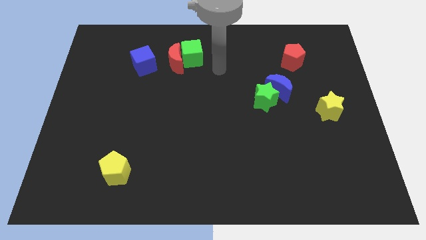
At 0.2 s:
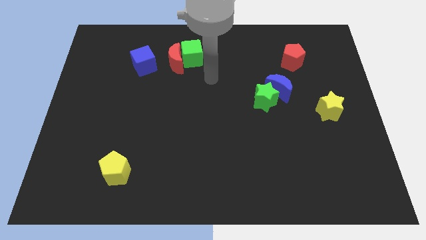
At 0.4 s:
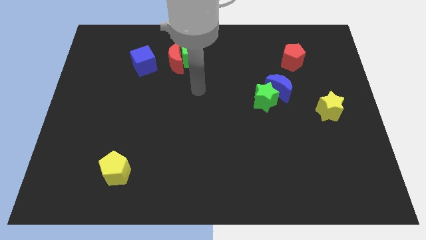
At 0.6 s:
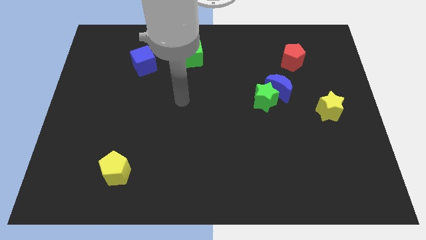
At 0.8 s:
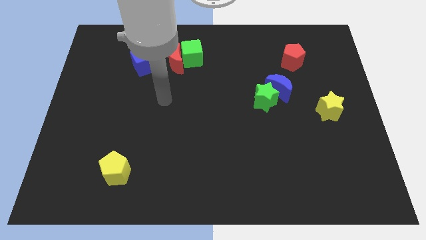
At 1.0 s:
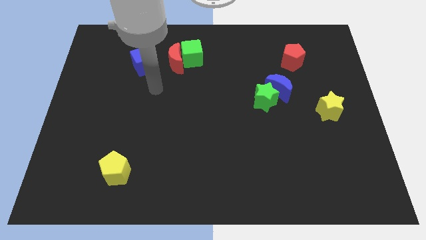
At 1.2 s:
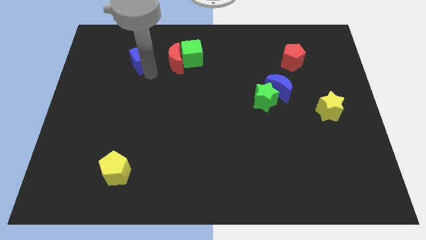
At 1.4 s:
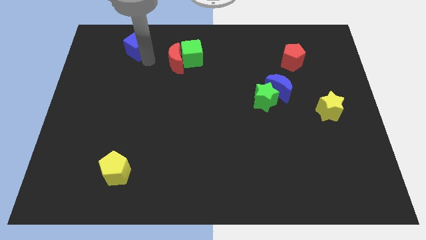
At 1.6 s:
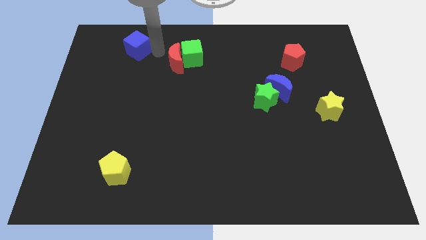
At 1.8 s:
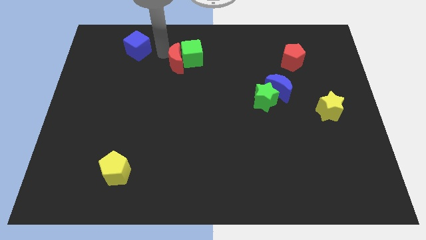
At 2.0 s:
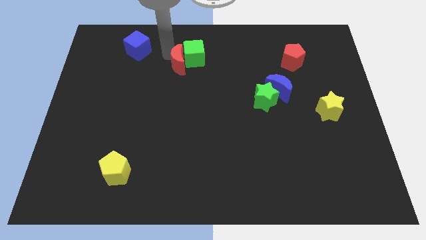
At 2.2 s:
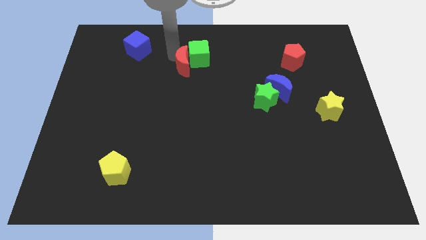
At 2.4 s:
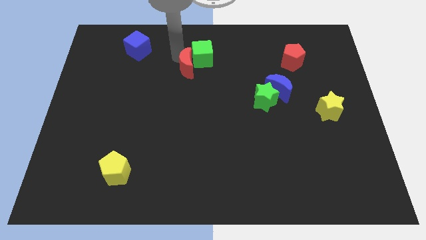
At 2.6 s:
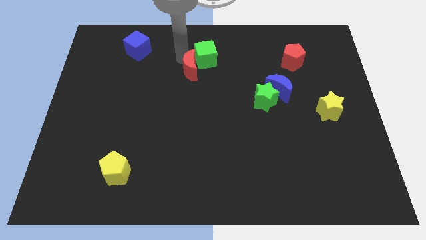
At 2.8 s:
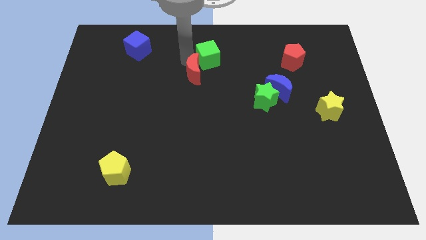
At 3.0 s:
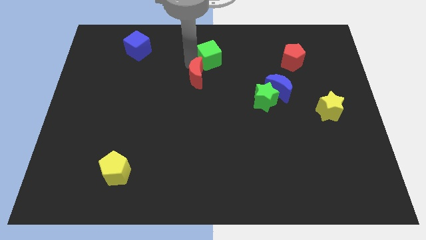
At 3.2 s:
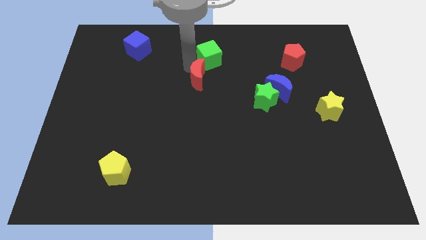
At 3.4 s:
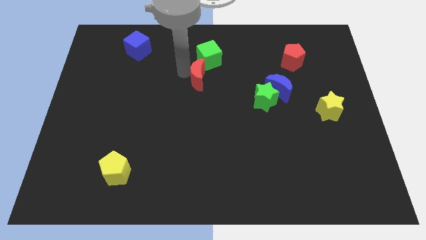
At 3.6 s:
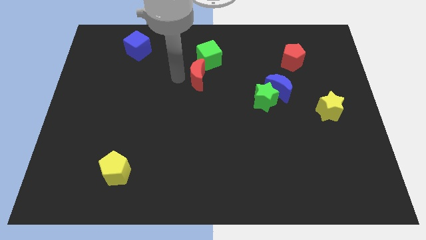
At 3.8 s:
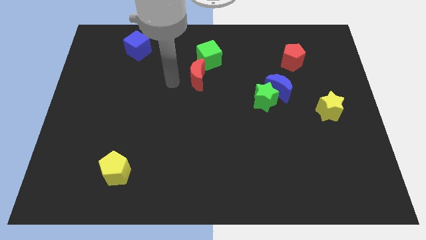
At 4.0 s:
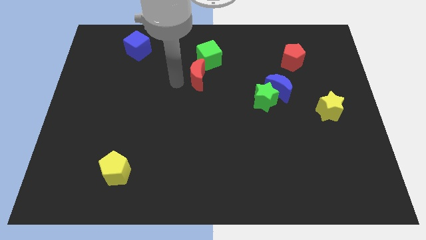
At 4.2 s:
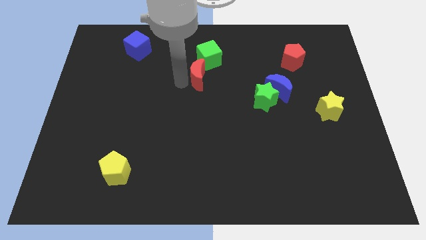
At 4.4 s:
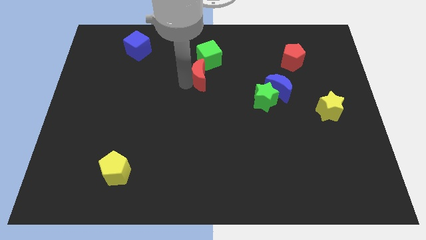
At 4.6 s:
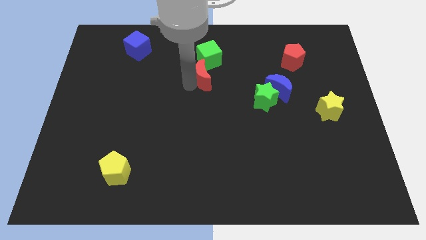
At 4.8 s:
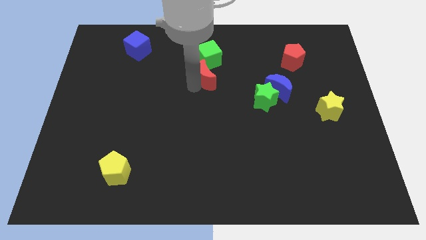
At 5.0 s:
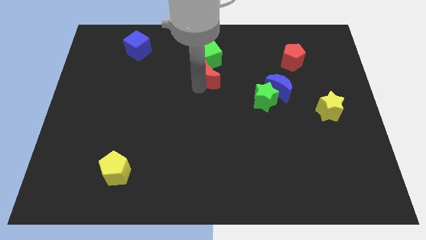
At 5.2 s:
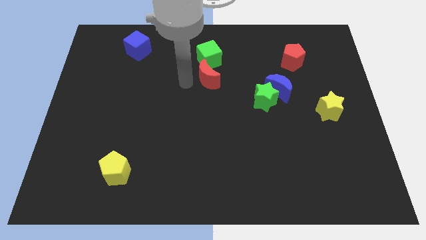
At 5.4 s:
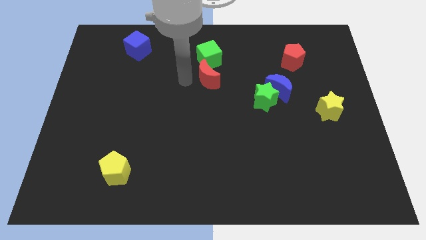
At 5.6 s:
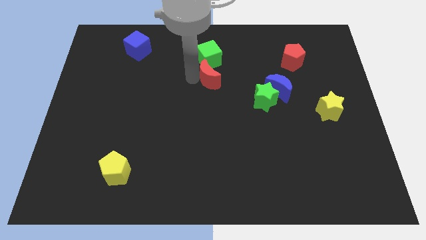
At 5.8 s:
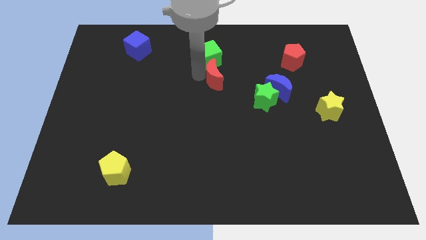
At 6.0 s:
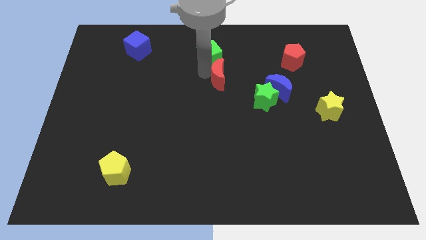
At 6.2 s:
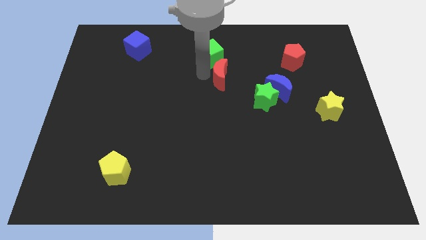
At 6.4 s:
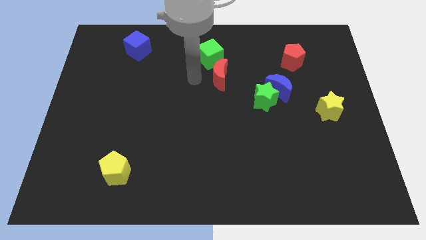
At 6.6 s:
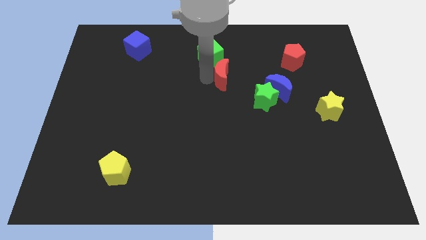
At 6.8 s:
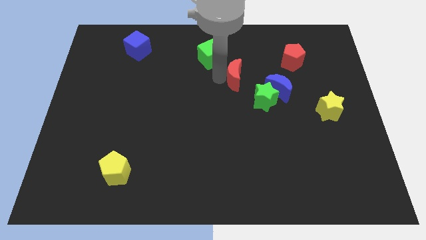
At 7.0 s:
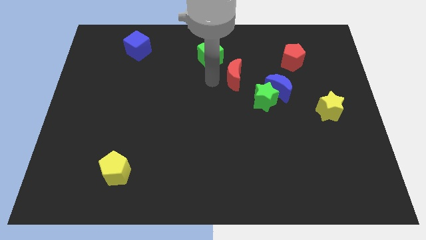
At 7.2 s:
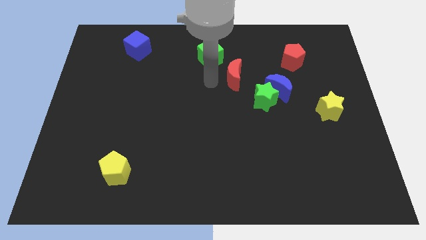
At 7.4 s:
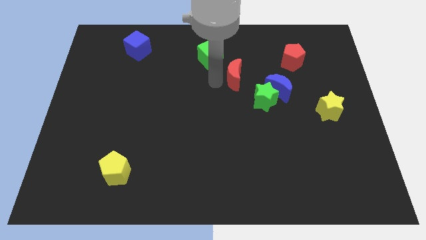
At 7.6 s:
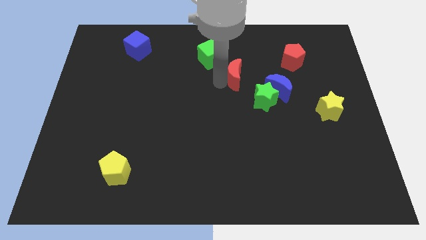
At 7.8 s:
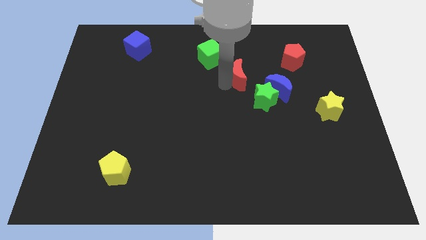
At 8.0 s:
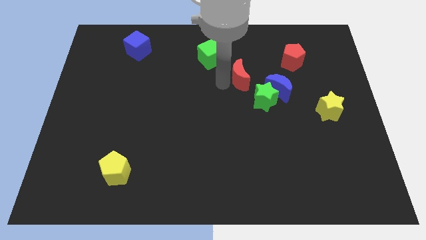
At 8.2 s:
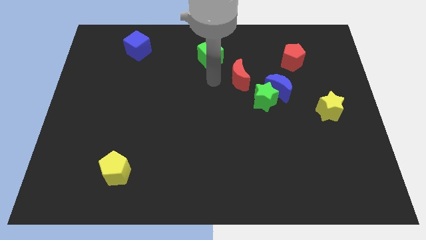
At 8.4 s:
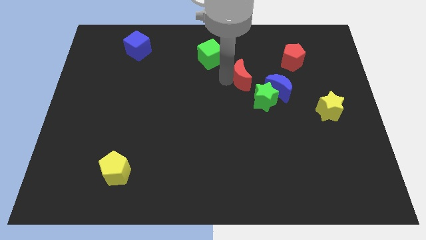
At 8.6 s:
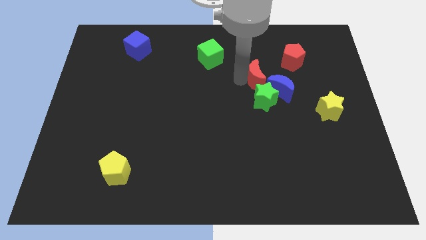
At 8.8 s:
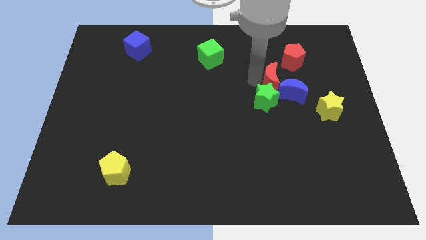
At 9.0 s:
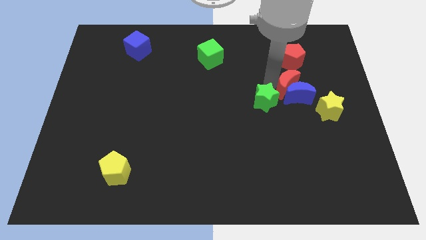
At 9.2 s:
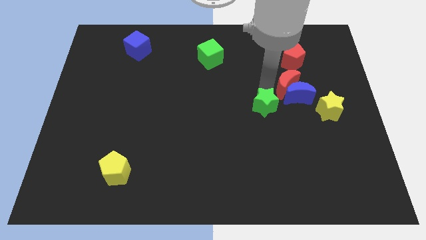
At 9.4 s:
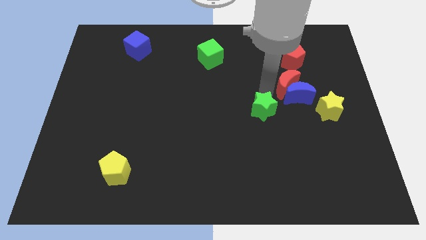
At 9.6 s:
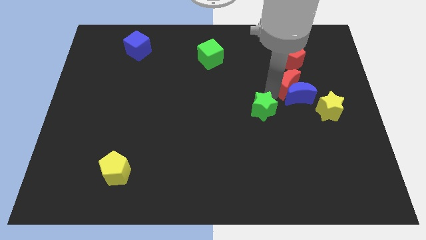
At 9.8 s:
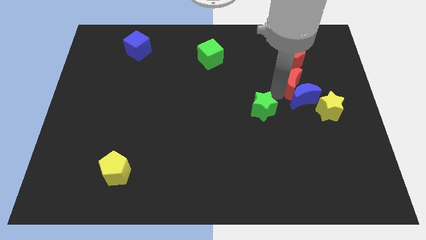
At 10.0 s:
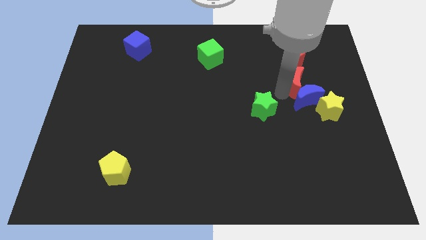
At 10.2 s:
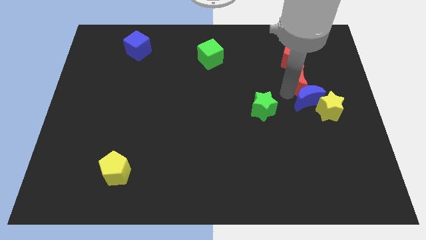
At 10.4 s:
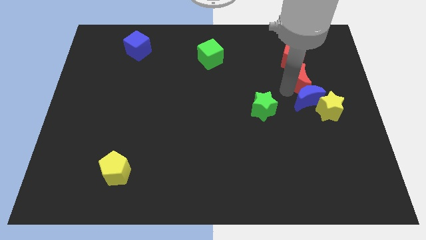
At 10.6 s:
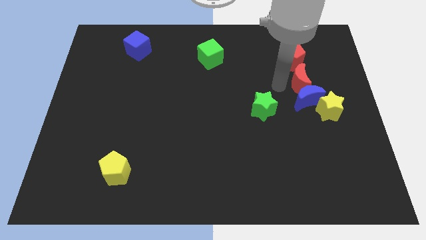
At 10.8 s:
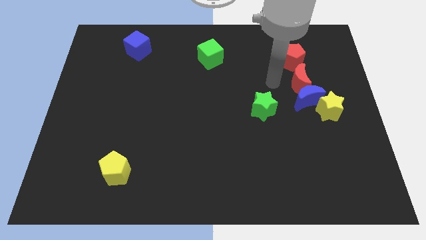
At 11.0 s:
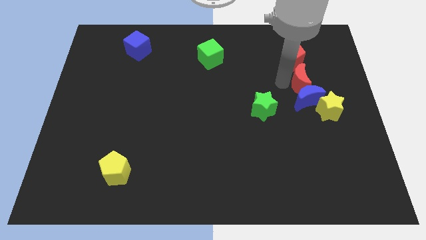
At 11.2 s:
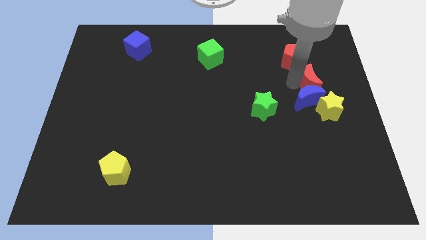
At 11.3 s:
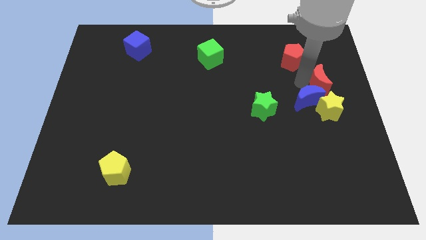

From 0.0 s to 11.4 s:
move the red moon to the right side of the board

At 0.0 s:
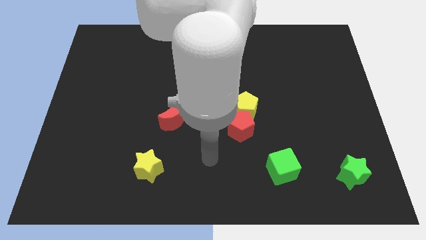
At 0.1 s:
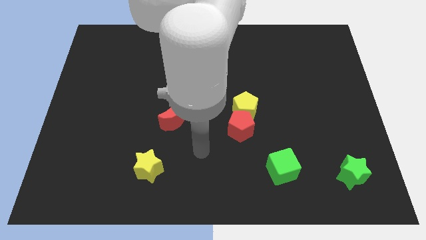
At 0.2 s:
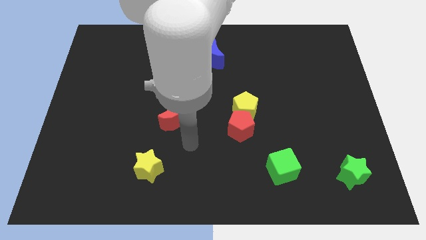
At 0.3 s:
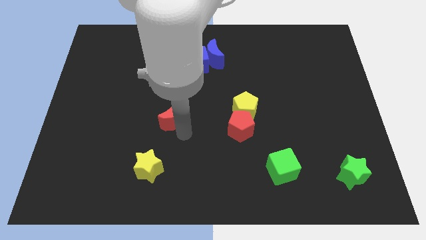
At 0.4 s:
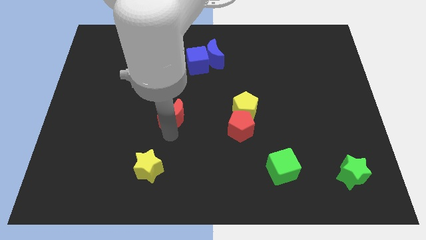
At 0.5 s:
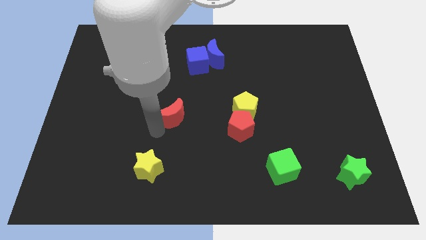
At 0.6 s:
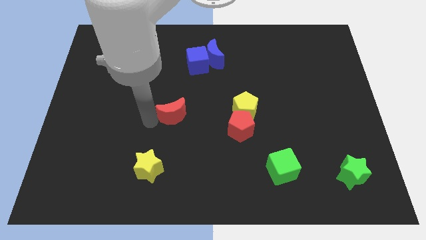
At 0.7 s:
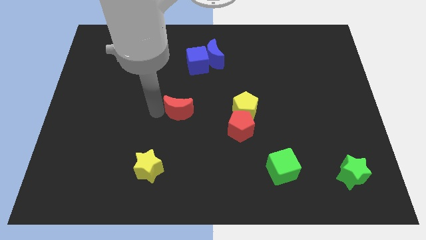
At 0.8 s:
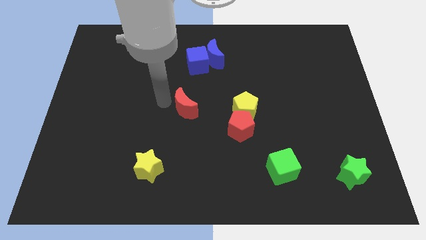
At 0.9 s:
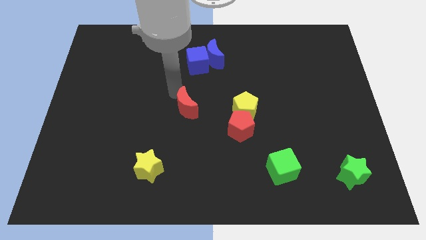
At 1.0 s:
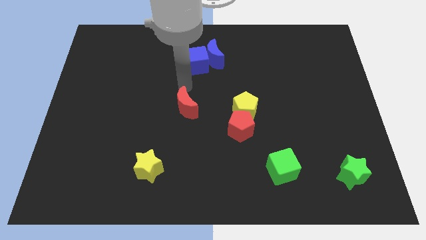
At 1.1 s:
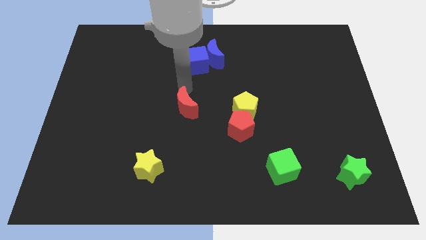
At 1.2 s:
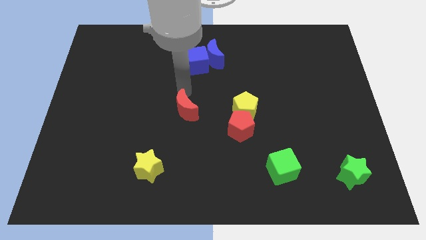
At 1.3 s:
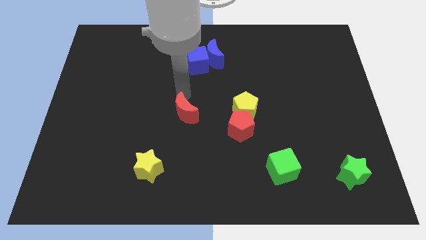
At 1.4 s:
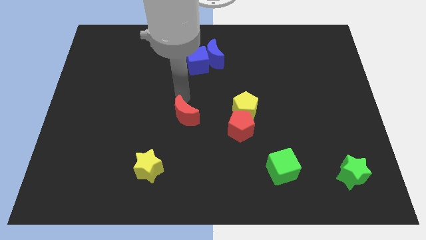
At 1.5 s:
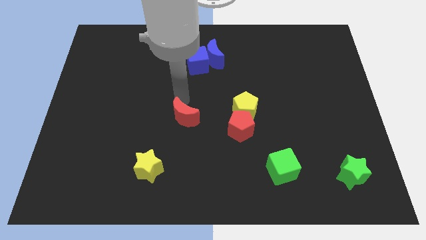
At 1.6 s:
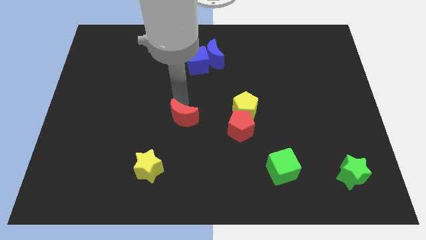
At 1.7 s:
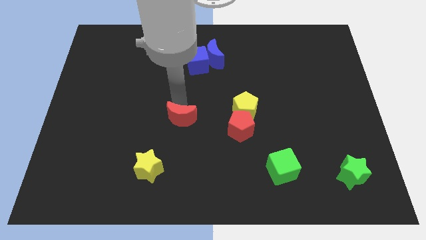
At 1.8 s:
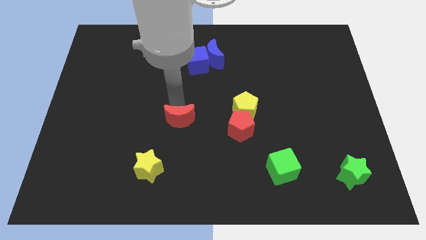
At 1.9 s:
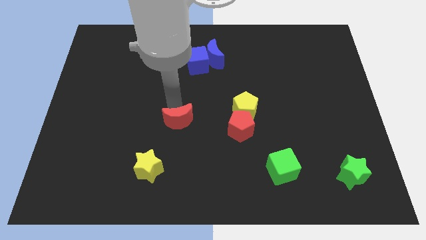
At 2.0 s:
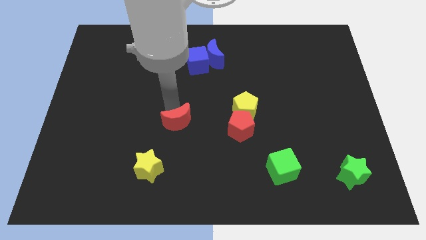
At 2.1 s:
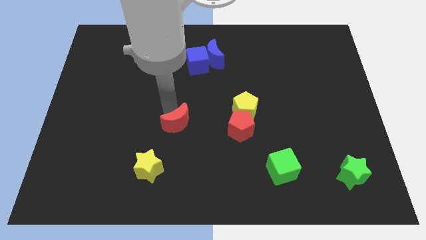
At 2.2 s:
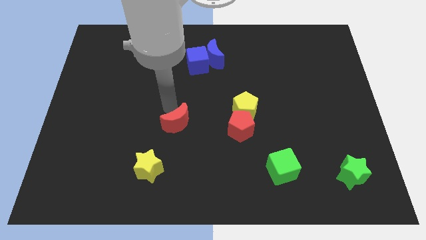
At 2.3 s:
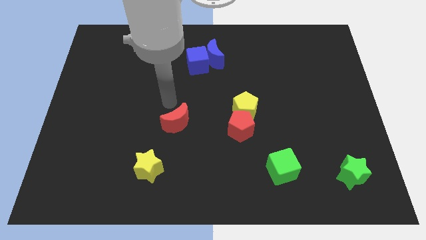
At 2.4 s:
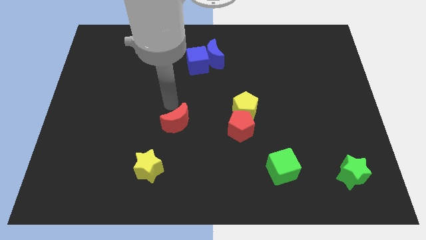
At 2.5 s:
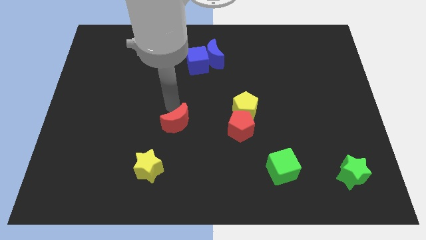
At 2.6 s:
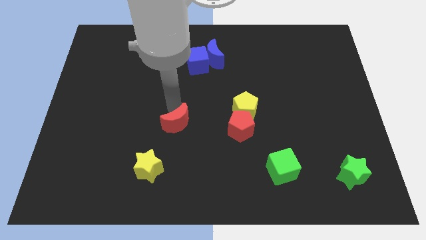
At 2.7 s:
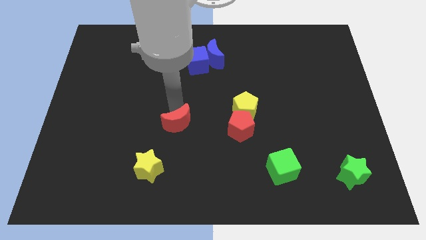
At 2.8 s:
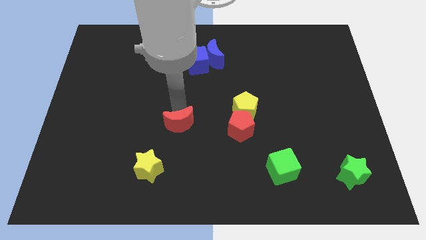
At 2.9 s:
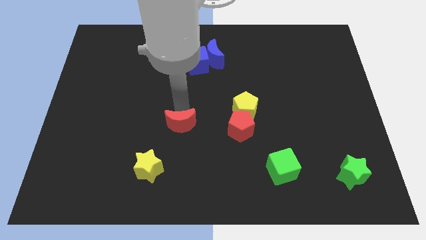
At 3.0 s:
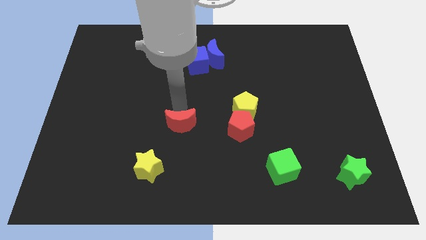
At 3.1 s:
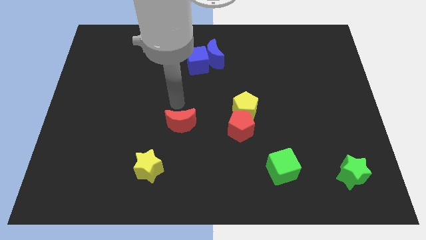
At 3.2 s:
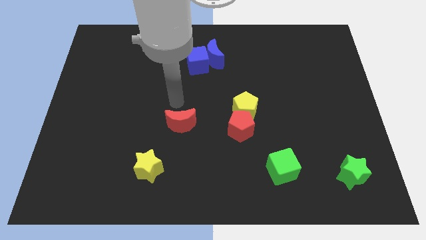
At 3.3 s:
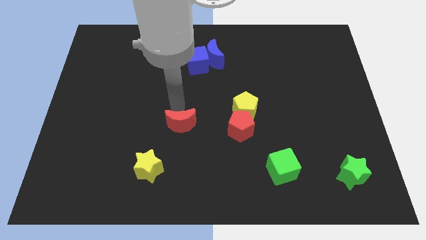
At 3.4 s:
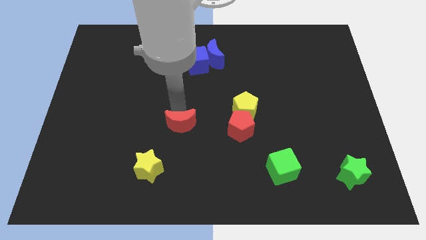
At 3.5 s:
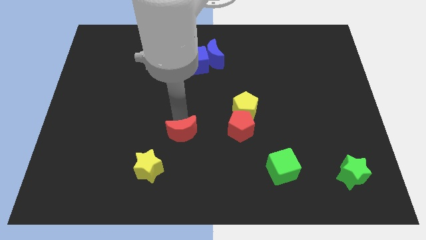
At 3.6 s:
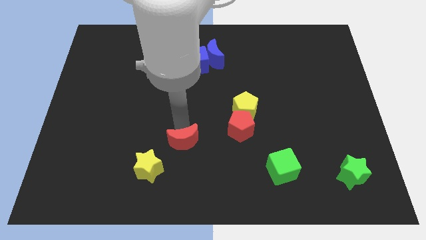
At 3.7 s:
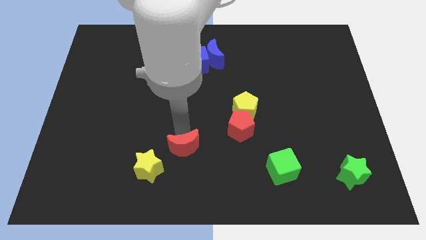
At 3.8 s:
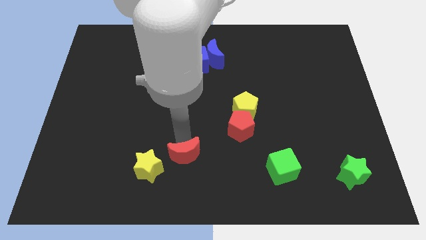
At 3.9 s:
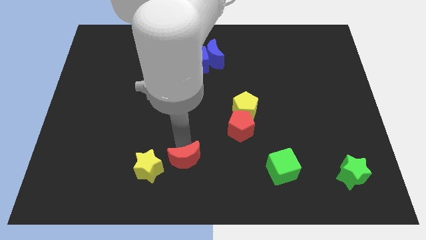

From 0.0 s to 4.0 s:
slide the red moon to the bottom
